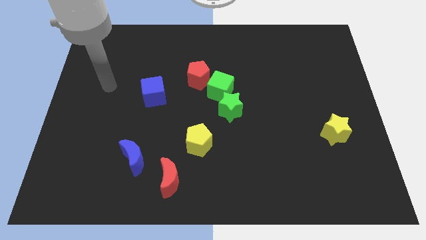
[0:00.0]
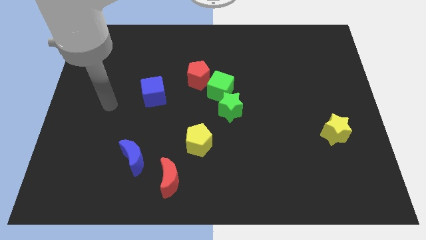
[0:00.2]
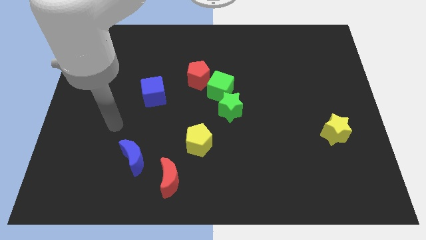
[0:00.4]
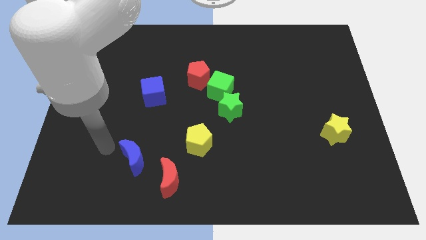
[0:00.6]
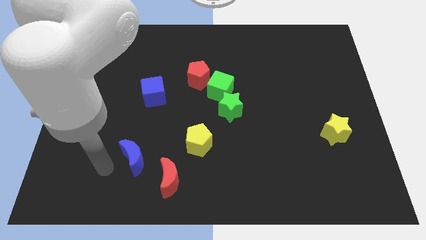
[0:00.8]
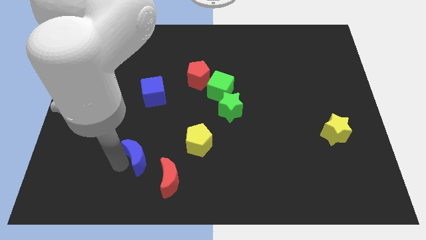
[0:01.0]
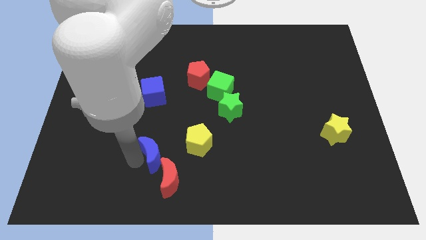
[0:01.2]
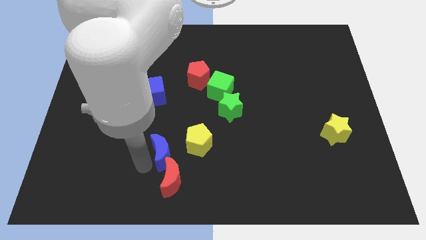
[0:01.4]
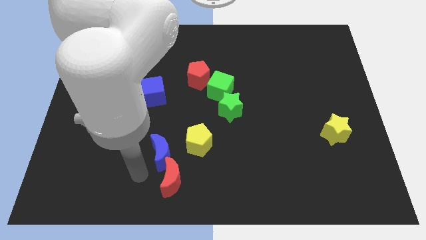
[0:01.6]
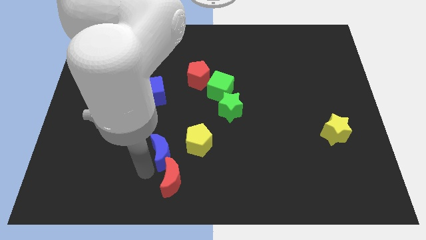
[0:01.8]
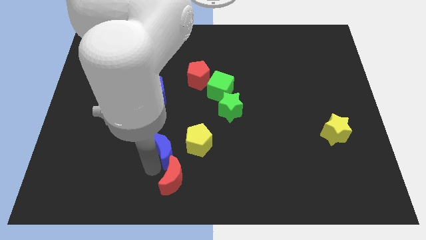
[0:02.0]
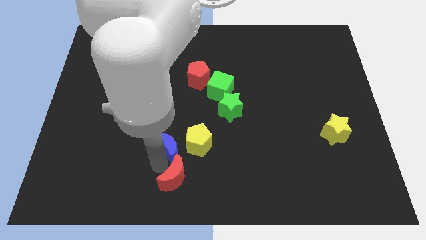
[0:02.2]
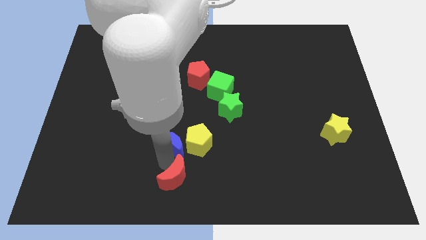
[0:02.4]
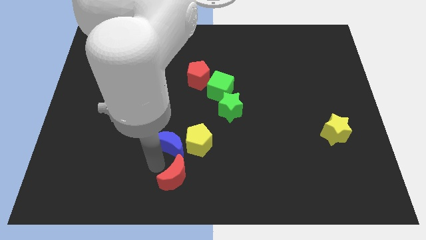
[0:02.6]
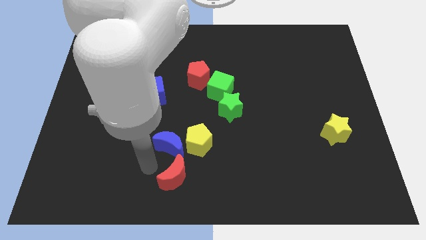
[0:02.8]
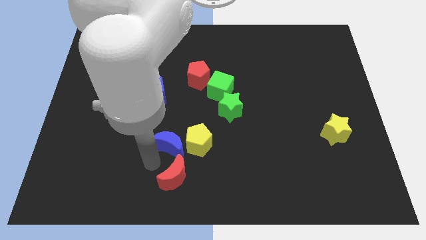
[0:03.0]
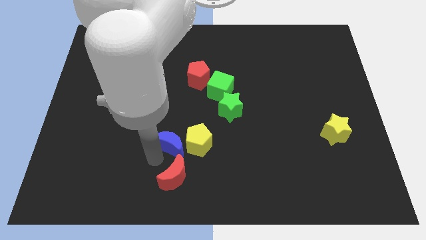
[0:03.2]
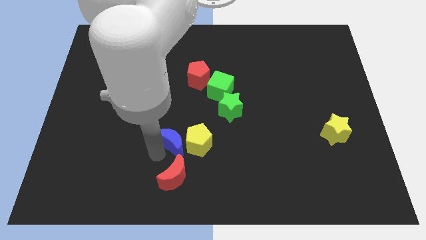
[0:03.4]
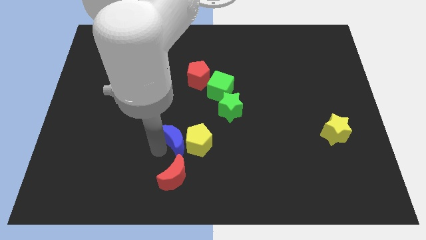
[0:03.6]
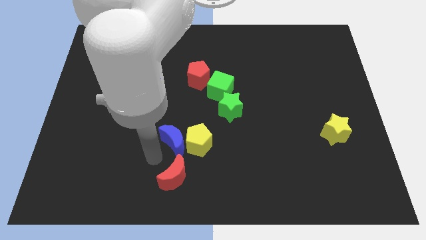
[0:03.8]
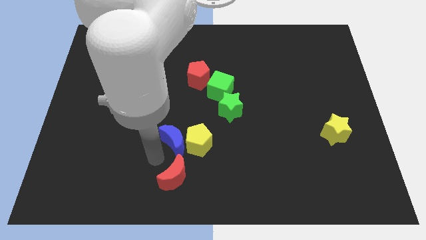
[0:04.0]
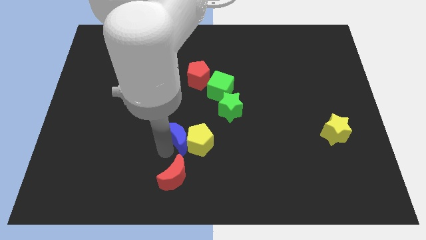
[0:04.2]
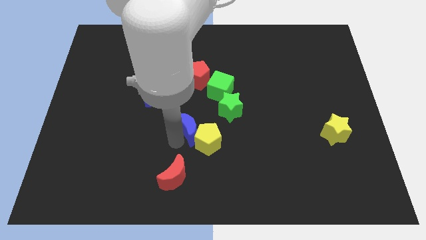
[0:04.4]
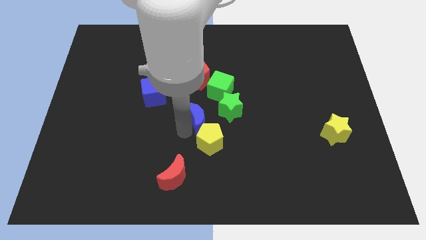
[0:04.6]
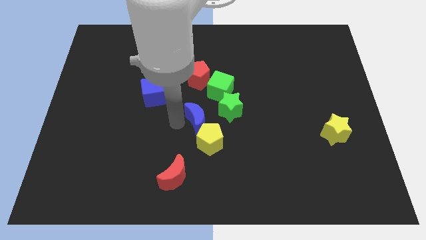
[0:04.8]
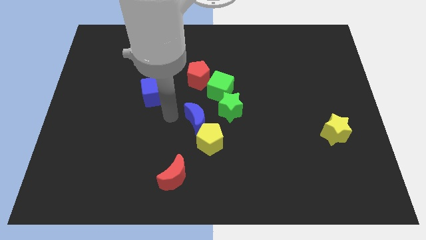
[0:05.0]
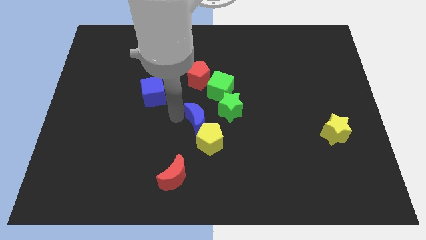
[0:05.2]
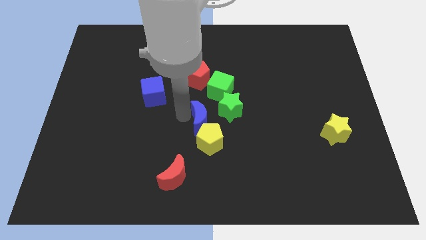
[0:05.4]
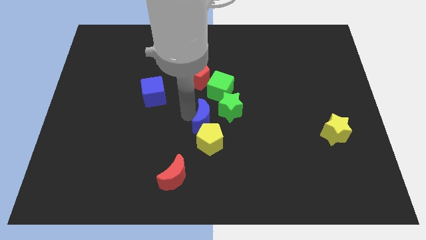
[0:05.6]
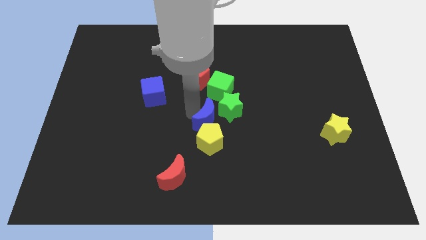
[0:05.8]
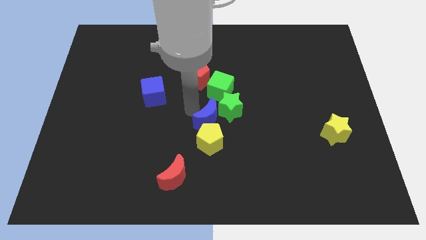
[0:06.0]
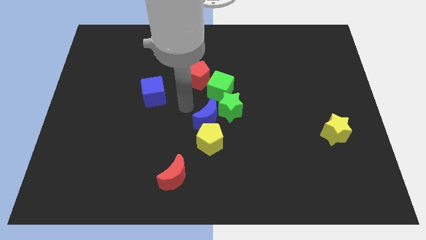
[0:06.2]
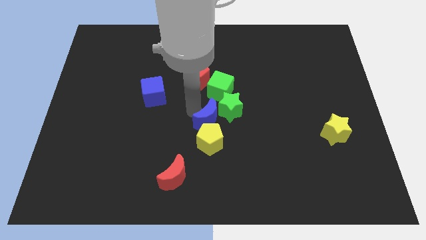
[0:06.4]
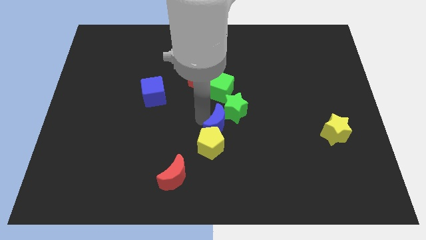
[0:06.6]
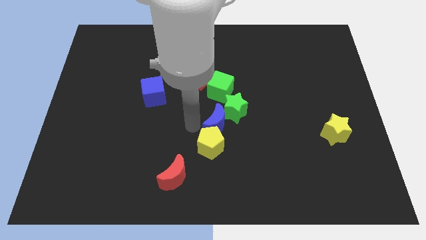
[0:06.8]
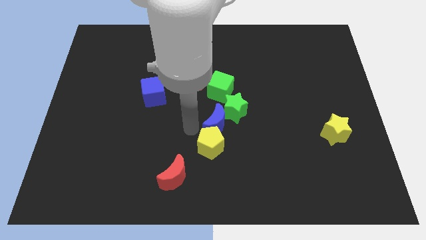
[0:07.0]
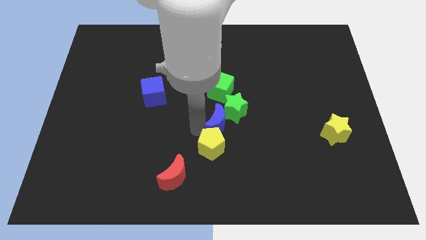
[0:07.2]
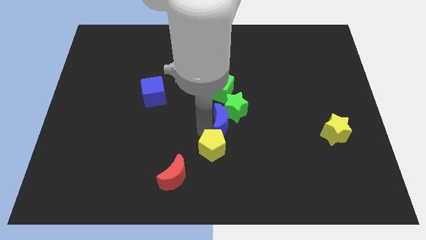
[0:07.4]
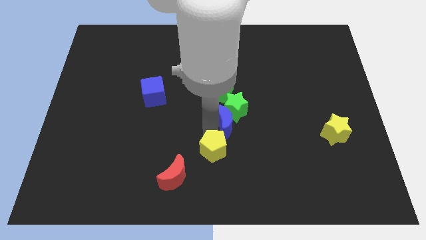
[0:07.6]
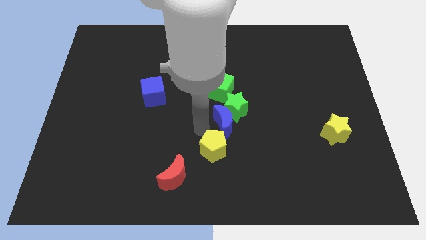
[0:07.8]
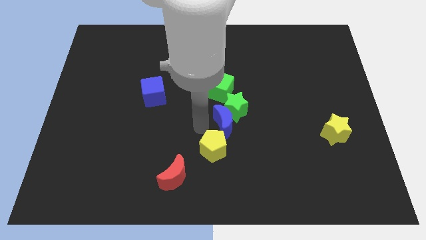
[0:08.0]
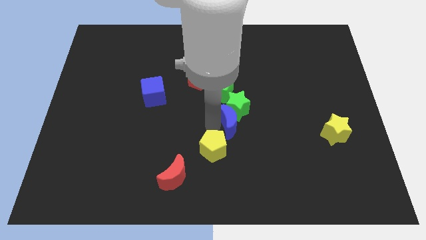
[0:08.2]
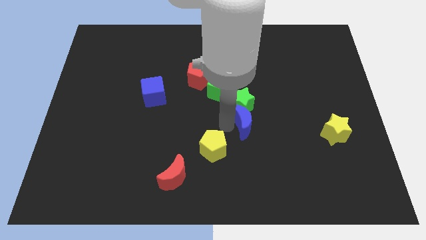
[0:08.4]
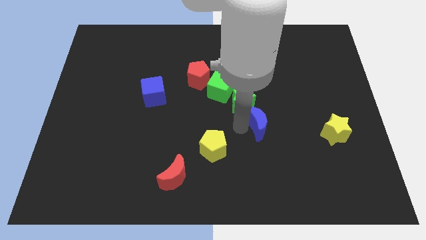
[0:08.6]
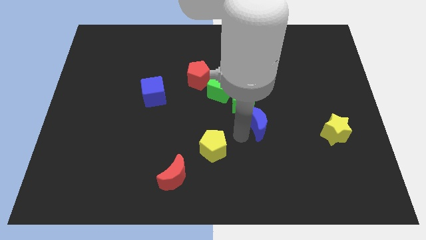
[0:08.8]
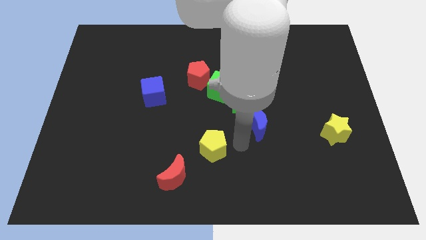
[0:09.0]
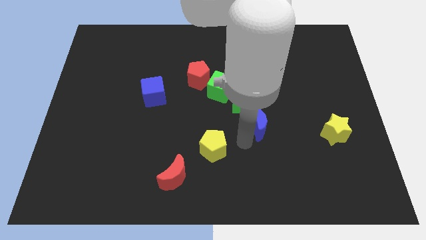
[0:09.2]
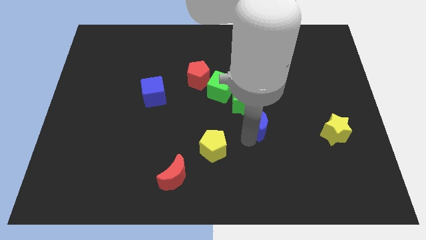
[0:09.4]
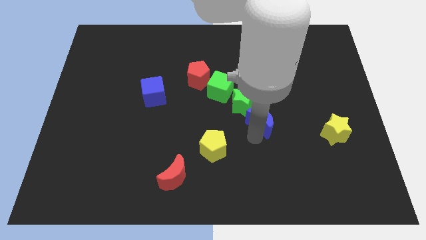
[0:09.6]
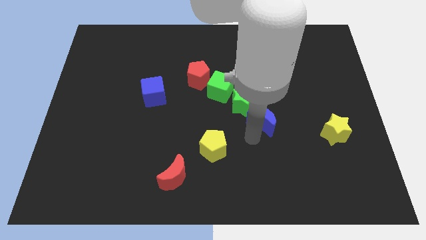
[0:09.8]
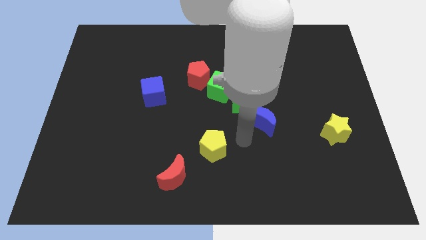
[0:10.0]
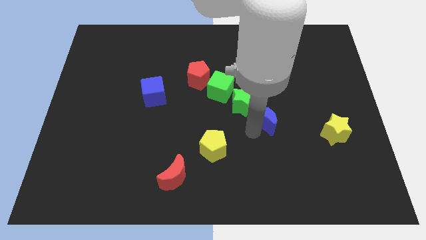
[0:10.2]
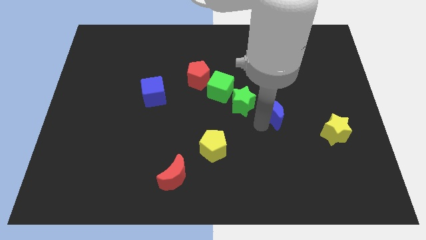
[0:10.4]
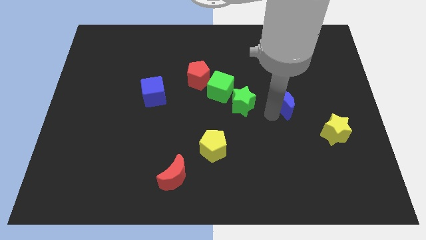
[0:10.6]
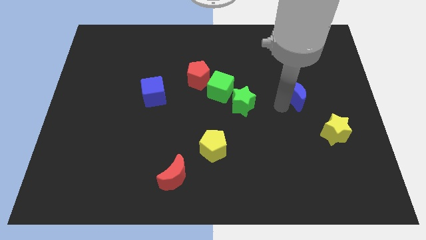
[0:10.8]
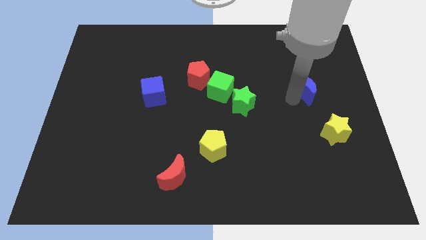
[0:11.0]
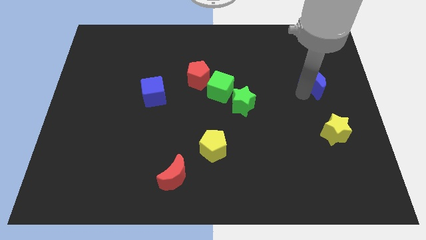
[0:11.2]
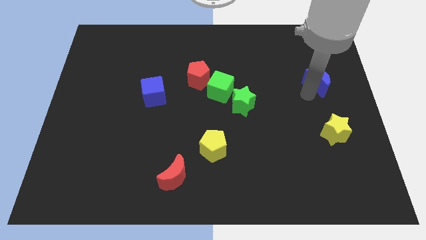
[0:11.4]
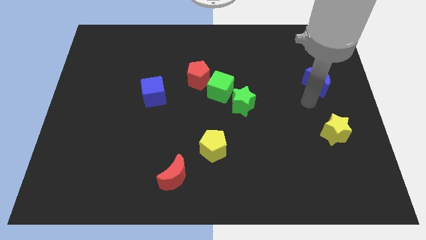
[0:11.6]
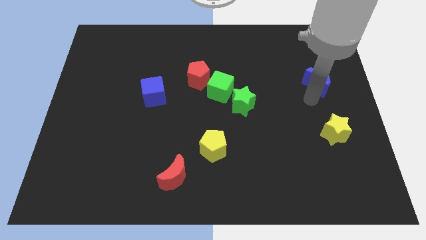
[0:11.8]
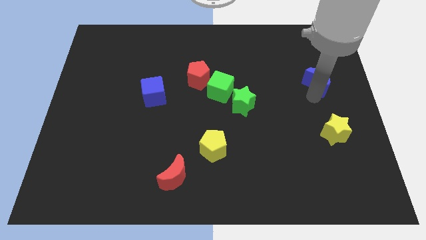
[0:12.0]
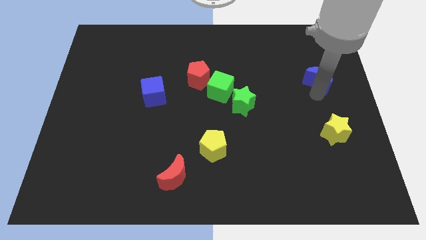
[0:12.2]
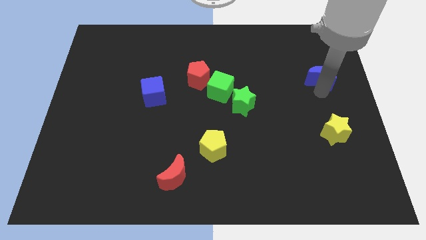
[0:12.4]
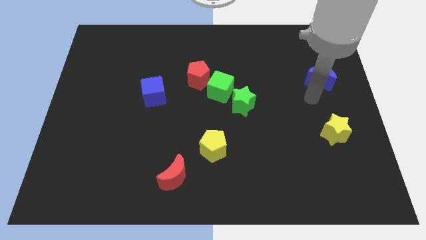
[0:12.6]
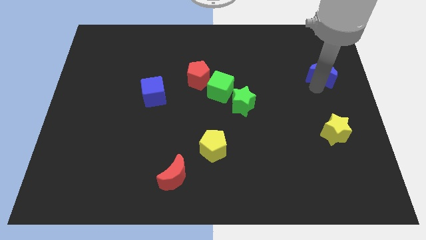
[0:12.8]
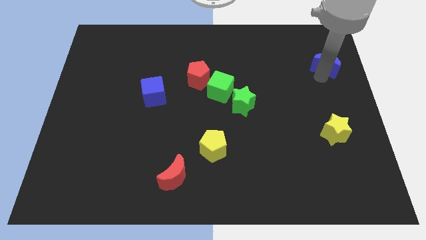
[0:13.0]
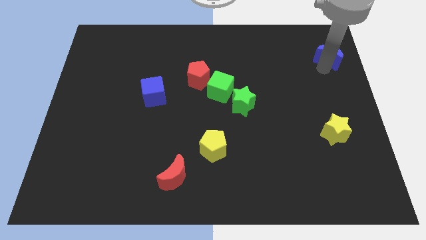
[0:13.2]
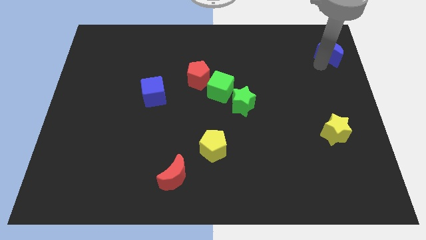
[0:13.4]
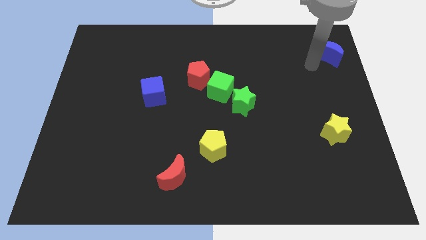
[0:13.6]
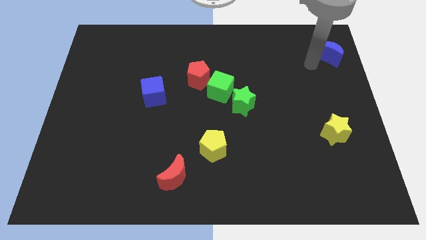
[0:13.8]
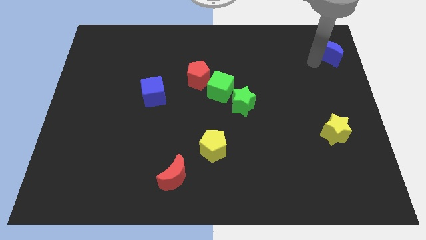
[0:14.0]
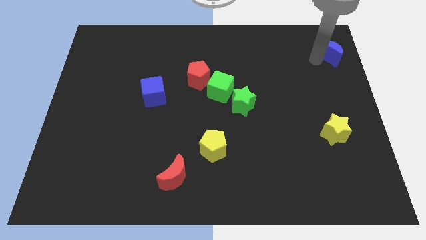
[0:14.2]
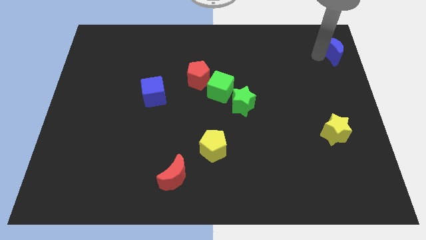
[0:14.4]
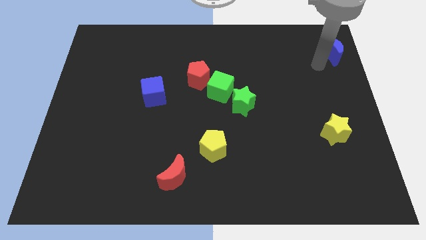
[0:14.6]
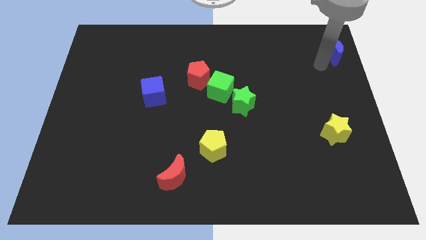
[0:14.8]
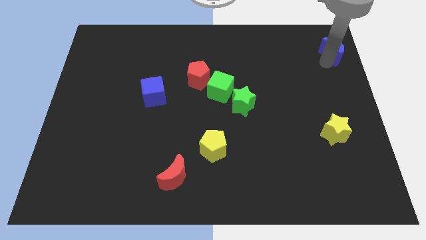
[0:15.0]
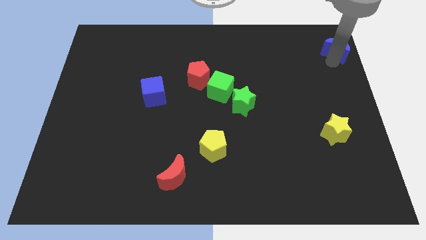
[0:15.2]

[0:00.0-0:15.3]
put the blue moon to the upper right corner
